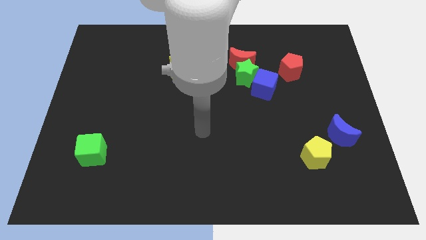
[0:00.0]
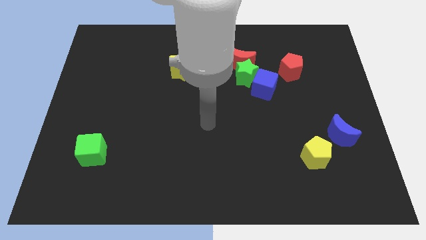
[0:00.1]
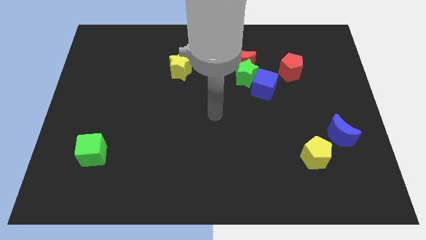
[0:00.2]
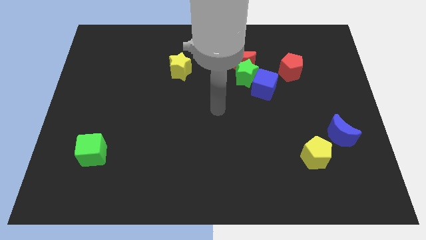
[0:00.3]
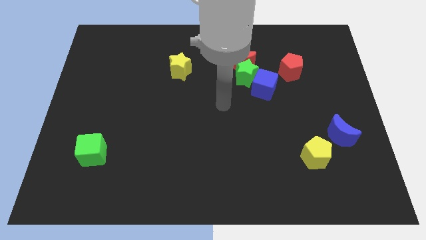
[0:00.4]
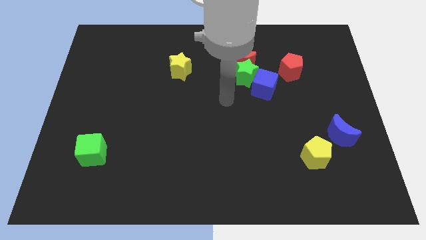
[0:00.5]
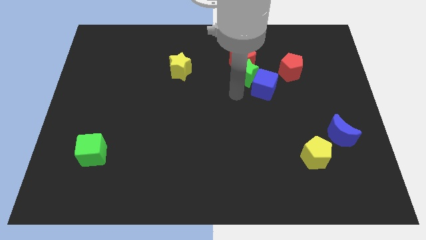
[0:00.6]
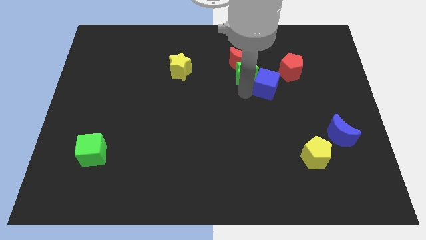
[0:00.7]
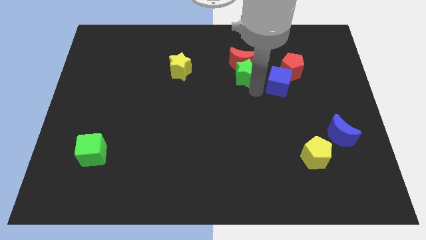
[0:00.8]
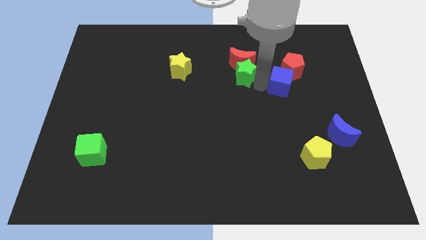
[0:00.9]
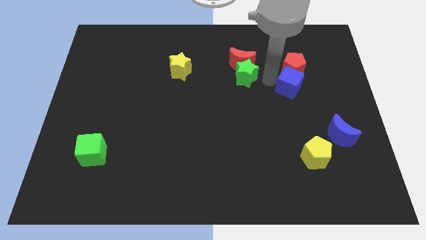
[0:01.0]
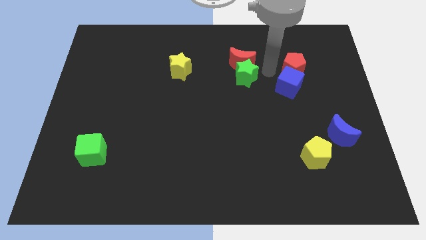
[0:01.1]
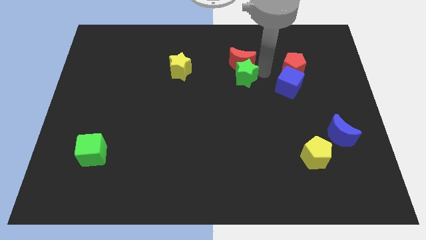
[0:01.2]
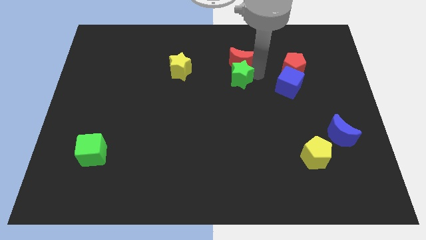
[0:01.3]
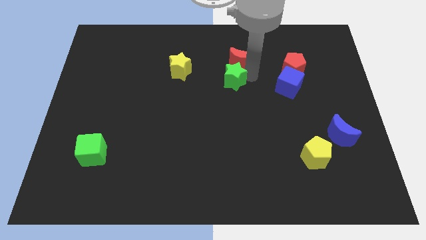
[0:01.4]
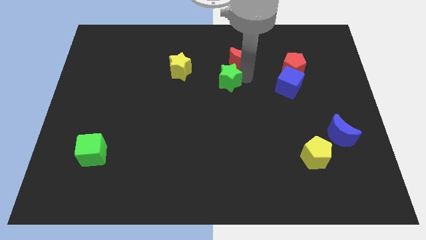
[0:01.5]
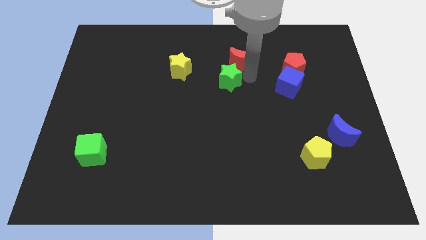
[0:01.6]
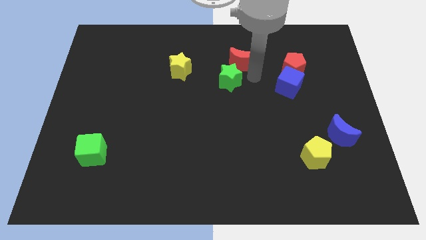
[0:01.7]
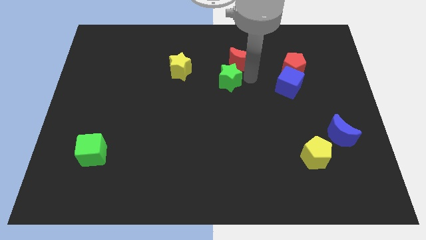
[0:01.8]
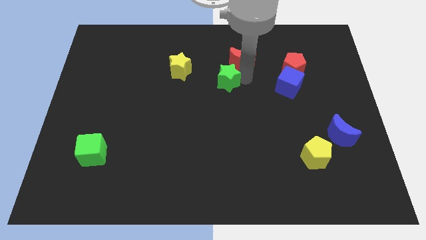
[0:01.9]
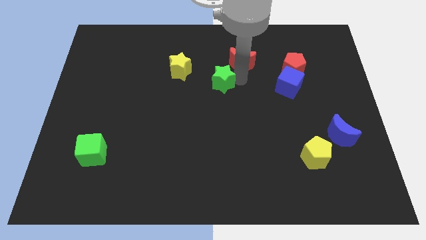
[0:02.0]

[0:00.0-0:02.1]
pull the green star apart from the red moon and blue cube

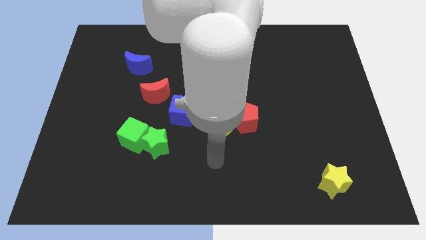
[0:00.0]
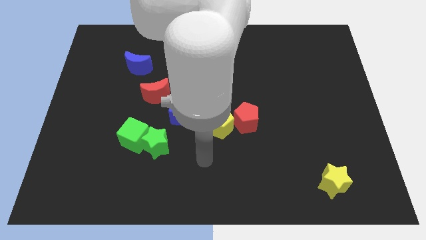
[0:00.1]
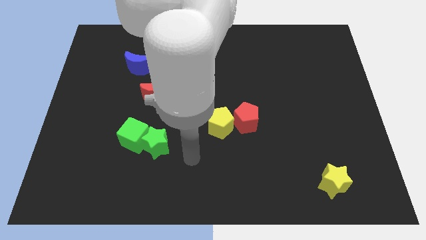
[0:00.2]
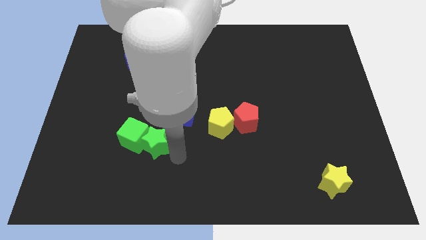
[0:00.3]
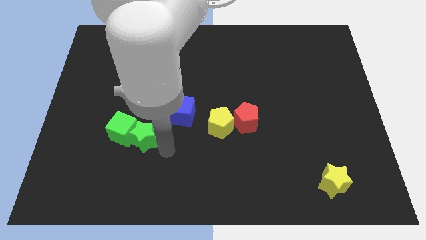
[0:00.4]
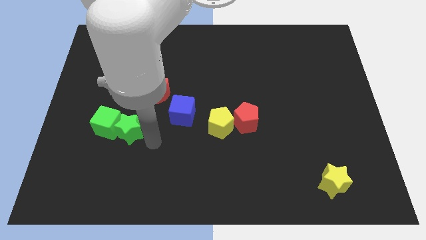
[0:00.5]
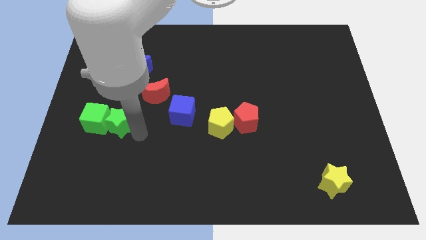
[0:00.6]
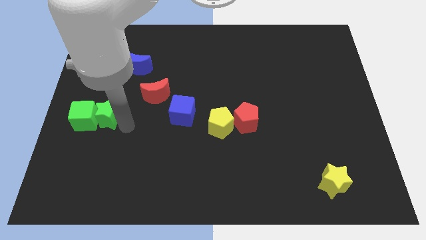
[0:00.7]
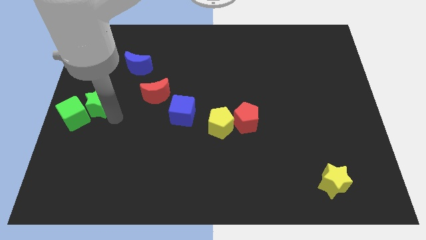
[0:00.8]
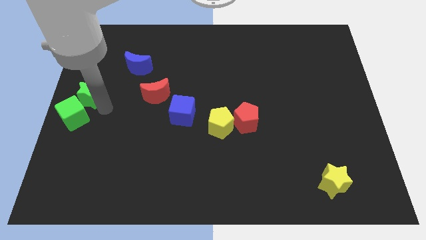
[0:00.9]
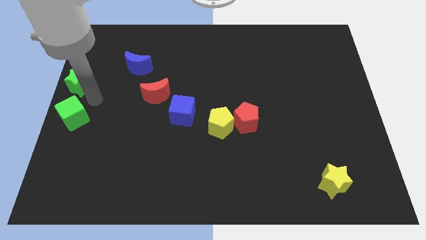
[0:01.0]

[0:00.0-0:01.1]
move the green cube away from the green star

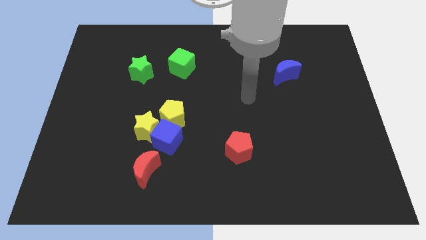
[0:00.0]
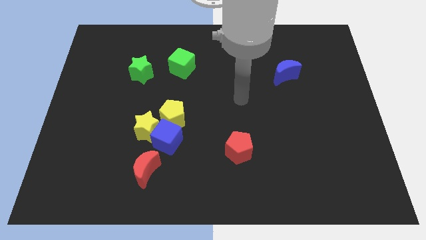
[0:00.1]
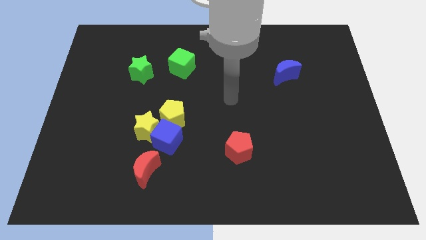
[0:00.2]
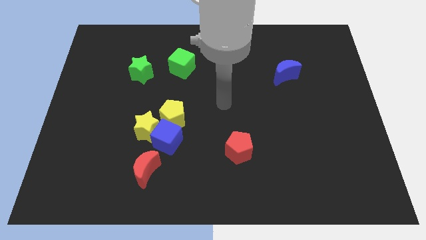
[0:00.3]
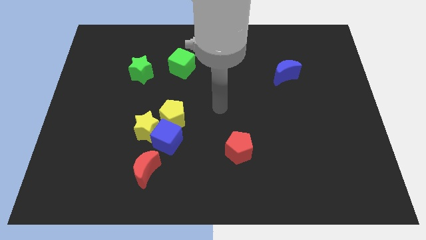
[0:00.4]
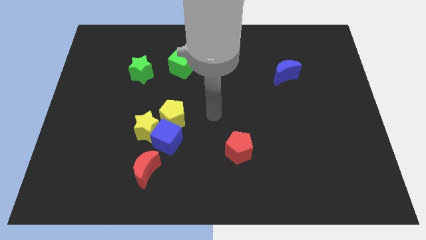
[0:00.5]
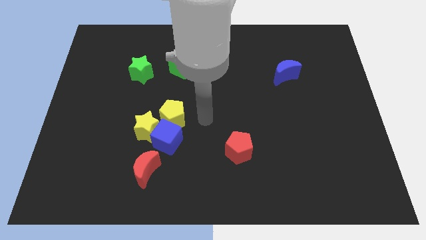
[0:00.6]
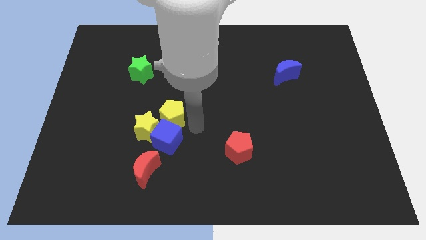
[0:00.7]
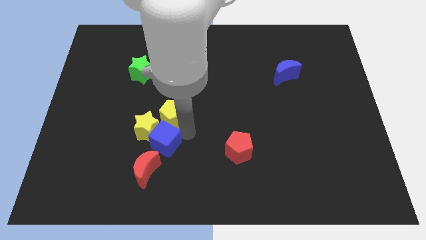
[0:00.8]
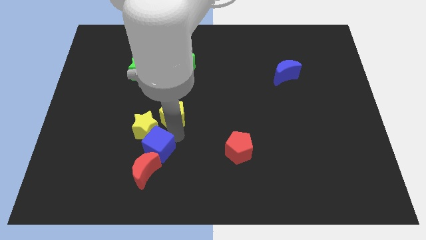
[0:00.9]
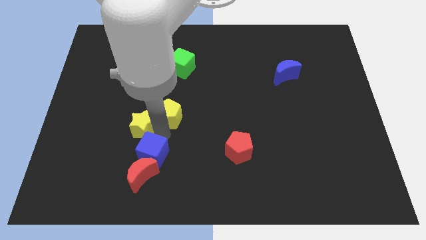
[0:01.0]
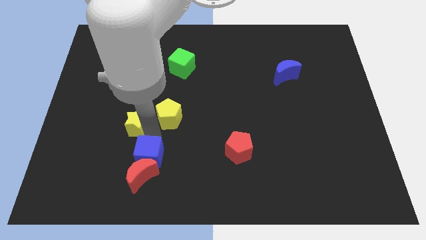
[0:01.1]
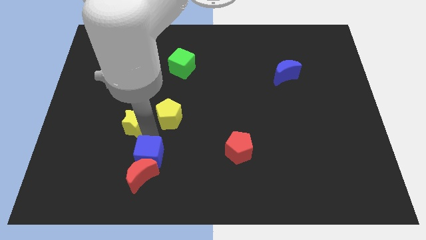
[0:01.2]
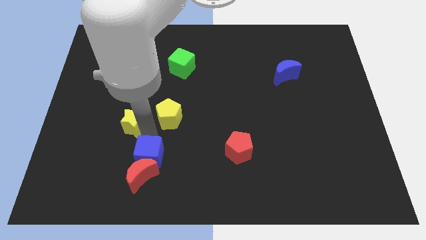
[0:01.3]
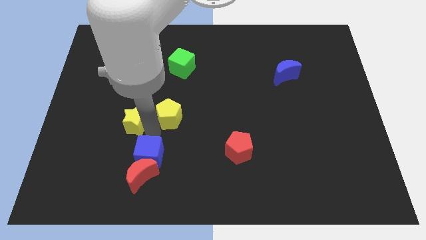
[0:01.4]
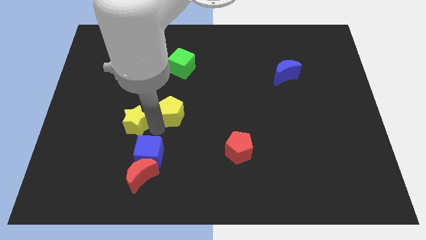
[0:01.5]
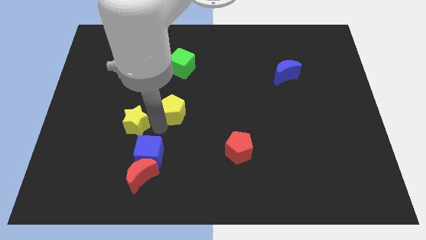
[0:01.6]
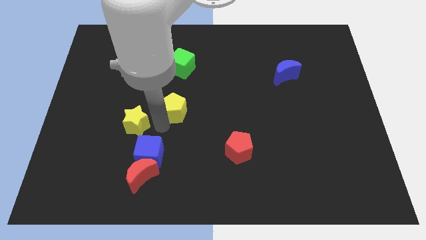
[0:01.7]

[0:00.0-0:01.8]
separate the yellow pentagon from the blue cube and yellow star

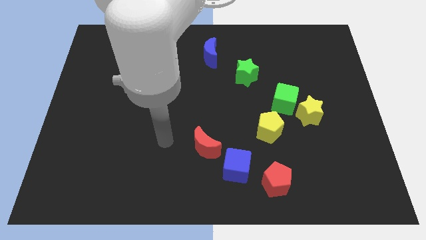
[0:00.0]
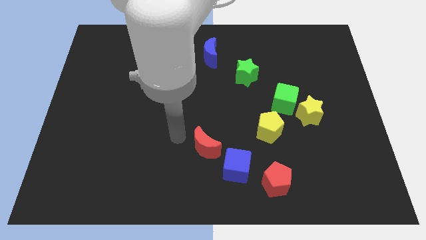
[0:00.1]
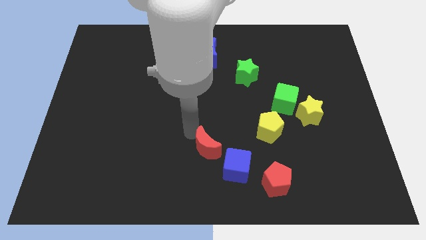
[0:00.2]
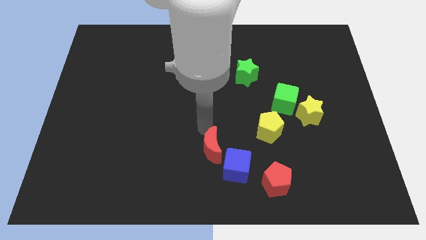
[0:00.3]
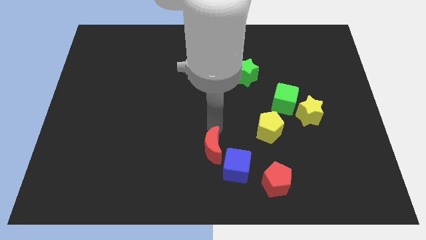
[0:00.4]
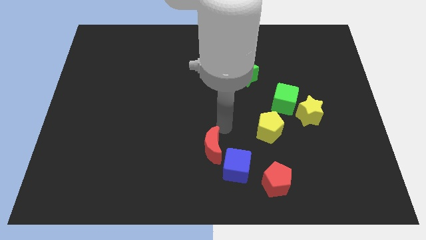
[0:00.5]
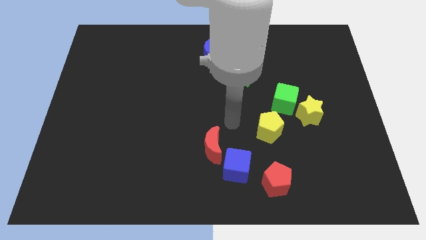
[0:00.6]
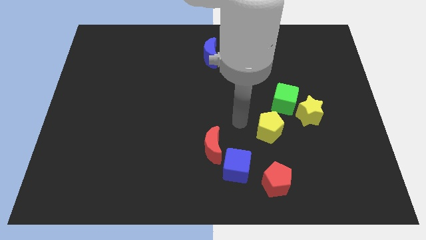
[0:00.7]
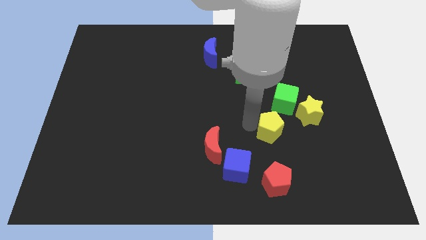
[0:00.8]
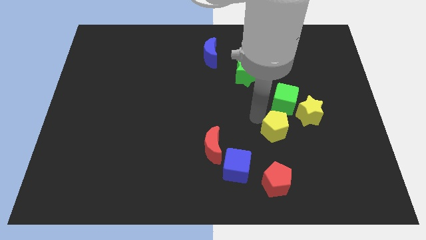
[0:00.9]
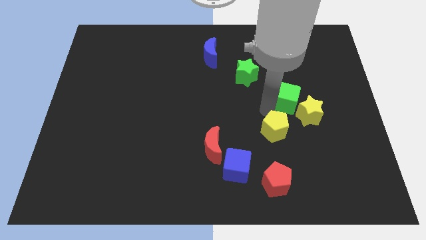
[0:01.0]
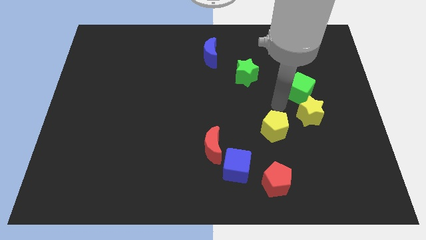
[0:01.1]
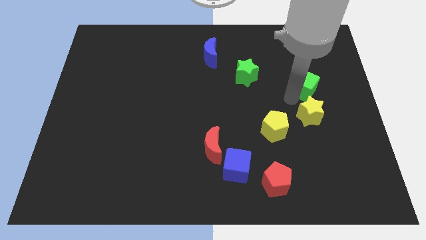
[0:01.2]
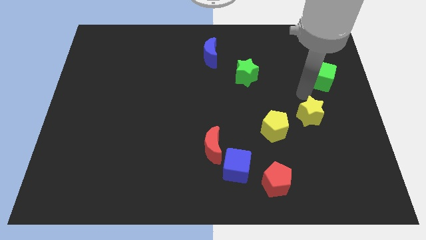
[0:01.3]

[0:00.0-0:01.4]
pull the yellow star apart from the green cube

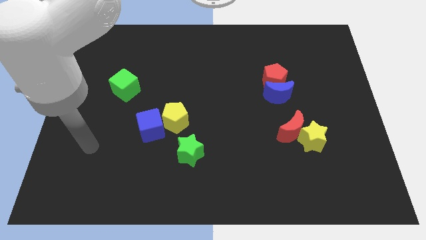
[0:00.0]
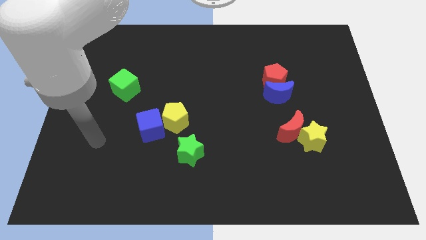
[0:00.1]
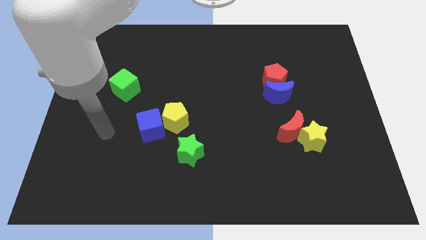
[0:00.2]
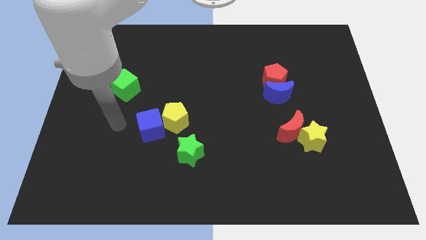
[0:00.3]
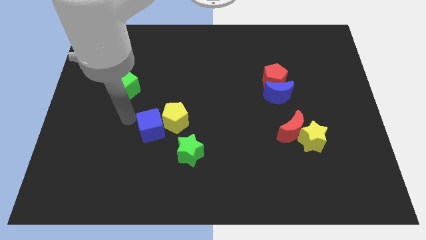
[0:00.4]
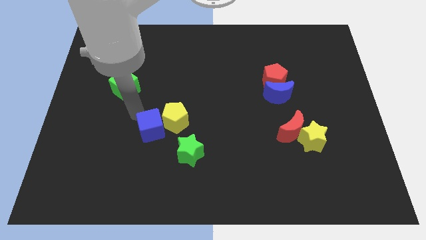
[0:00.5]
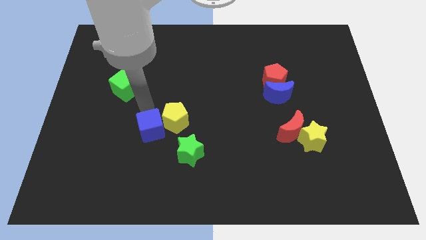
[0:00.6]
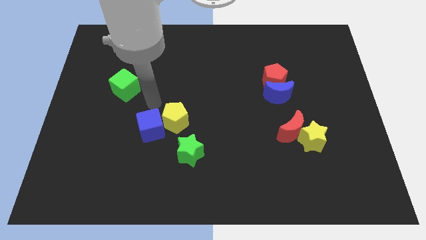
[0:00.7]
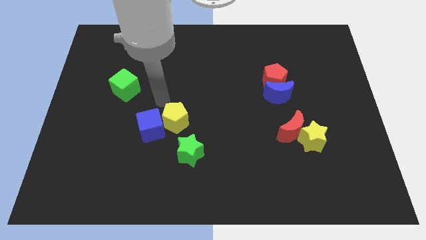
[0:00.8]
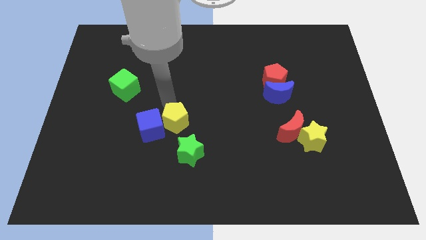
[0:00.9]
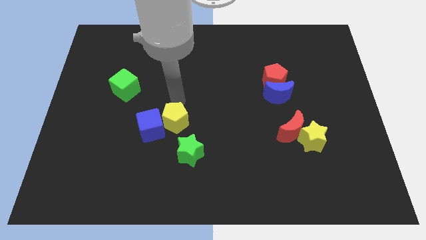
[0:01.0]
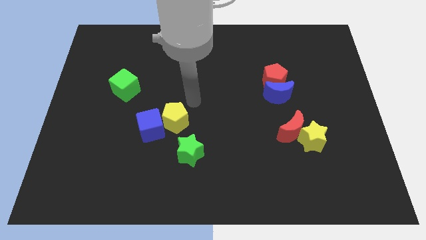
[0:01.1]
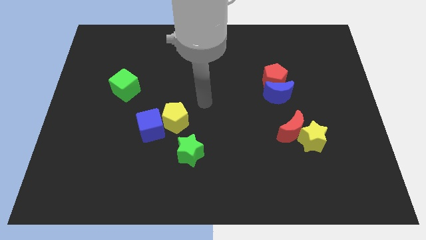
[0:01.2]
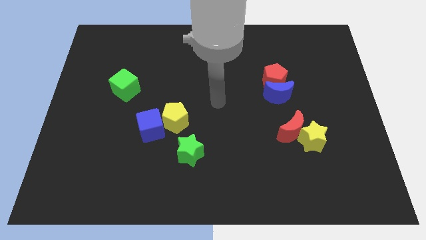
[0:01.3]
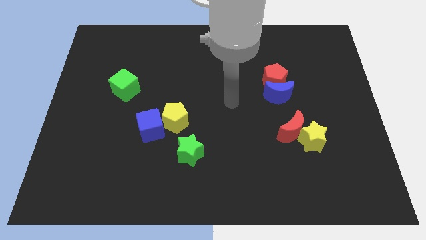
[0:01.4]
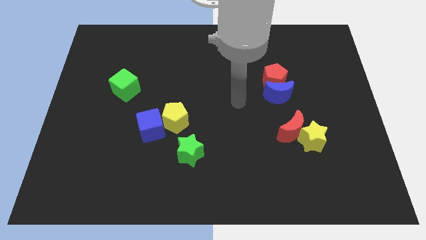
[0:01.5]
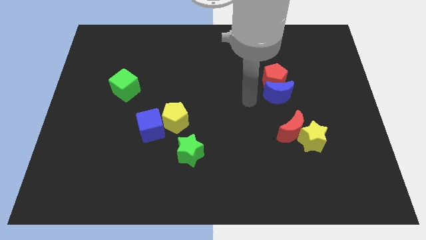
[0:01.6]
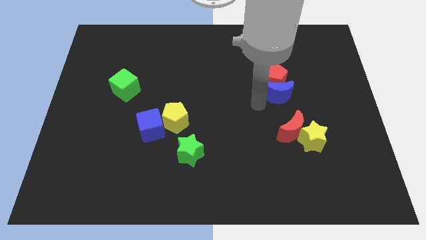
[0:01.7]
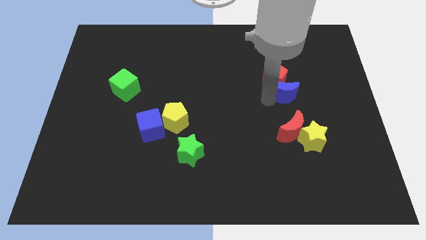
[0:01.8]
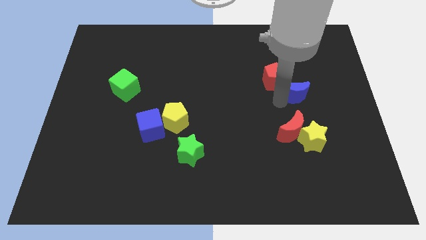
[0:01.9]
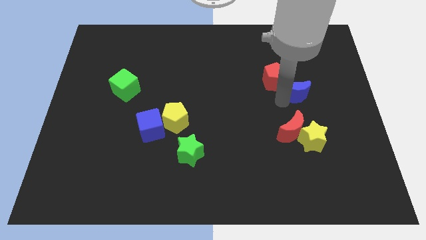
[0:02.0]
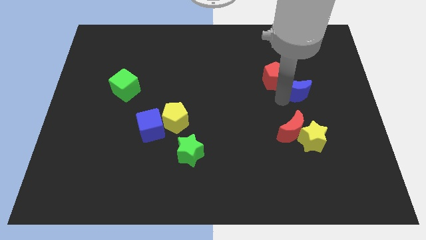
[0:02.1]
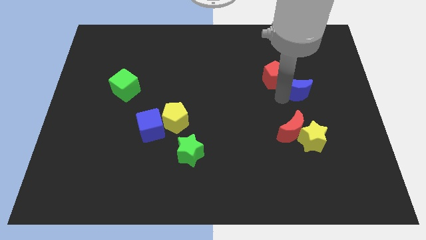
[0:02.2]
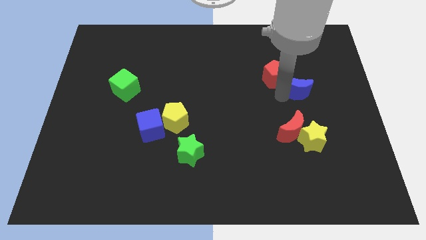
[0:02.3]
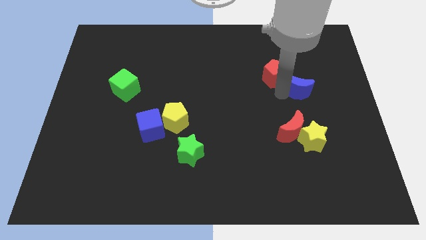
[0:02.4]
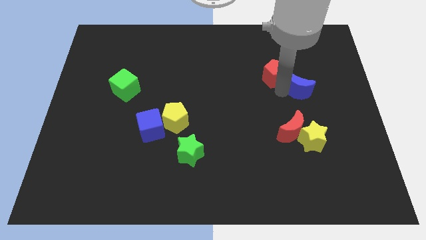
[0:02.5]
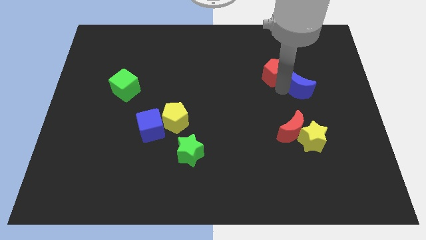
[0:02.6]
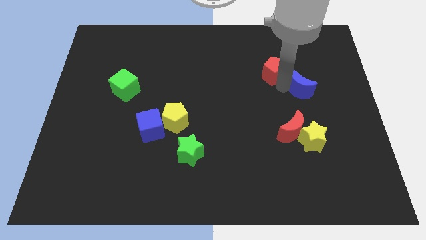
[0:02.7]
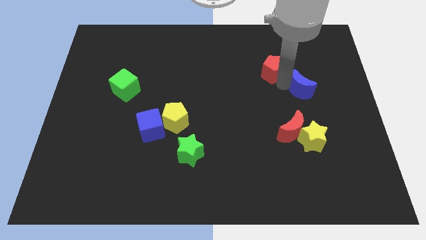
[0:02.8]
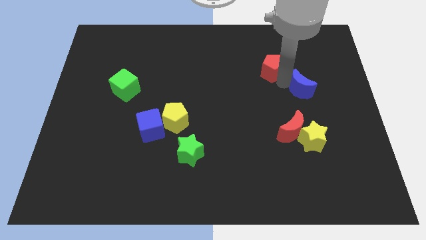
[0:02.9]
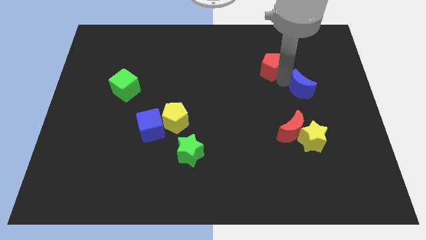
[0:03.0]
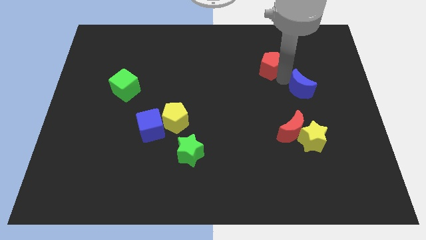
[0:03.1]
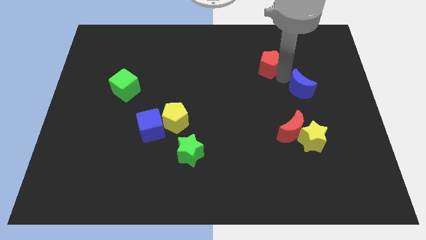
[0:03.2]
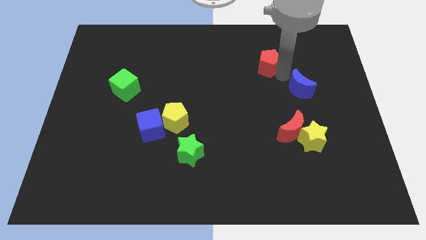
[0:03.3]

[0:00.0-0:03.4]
pull the red pentagon apart from the blue moon
